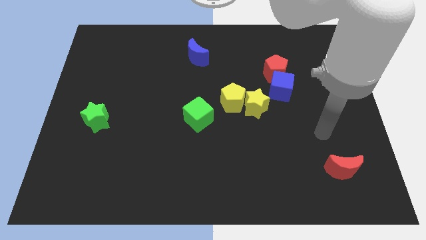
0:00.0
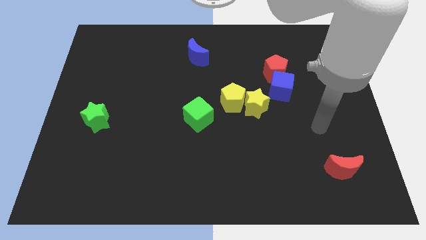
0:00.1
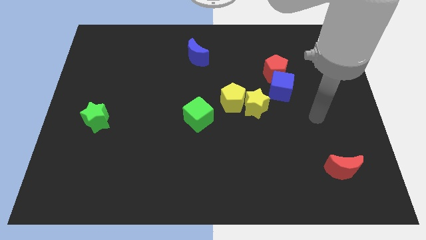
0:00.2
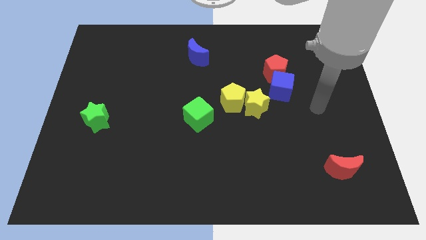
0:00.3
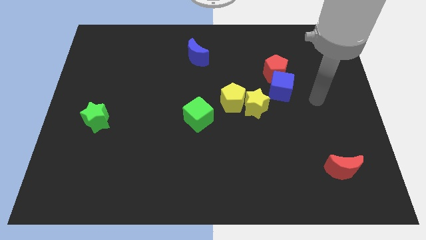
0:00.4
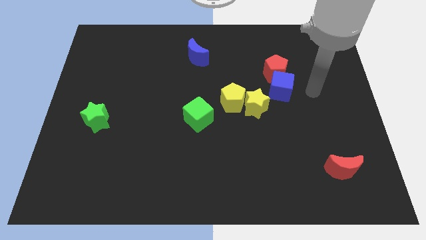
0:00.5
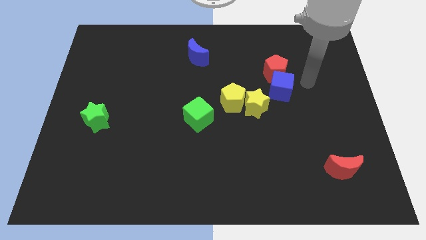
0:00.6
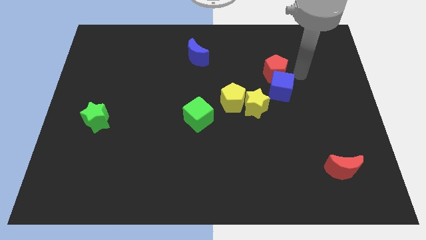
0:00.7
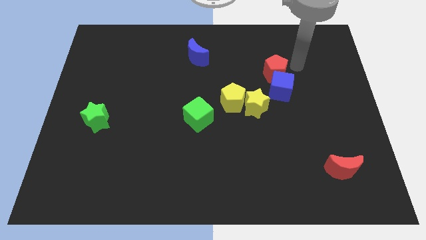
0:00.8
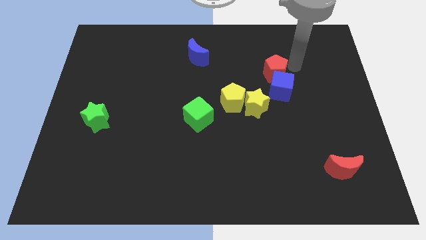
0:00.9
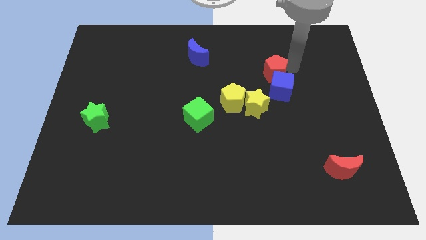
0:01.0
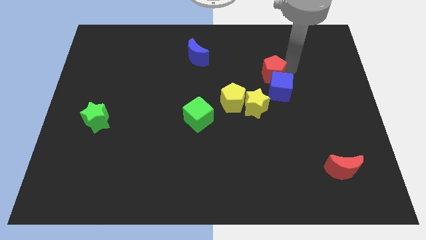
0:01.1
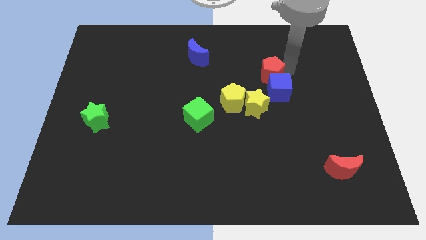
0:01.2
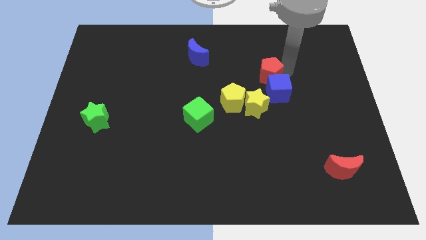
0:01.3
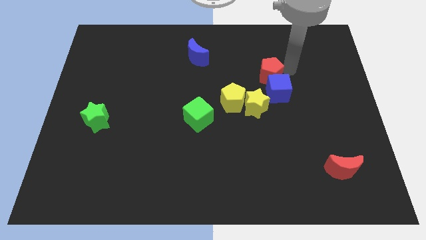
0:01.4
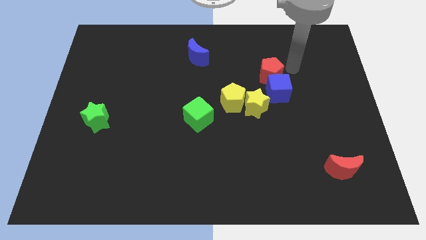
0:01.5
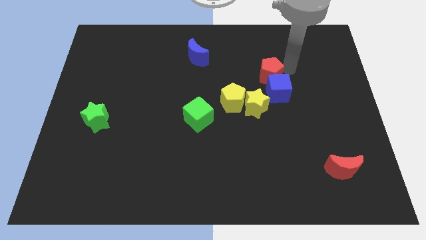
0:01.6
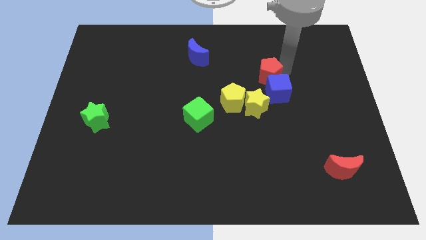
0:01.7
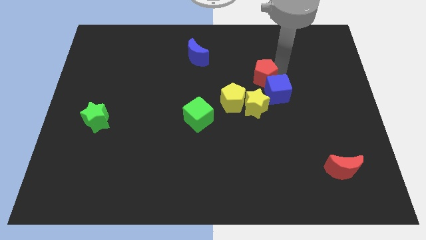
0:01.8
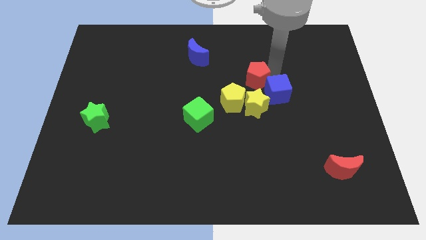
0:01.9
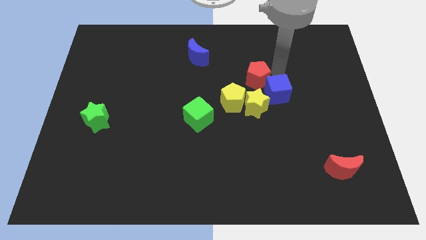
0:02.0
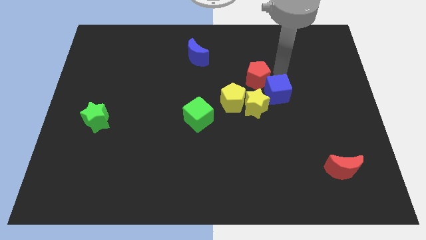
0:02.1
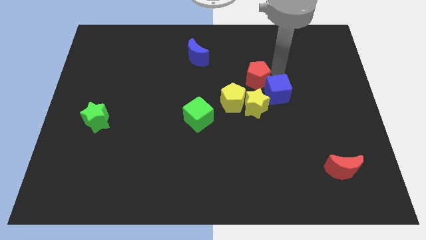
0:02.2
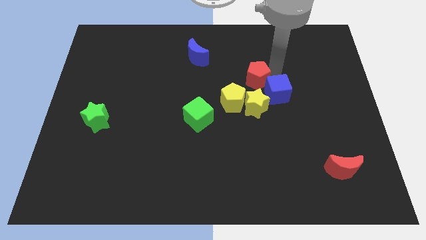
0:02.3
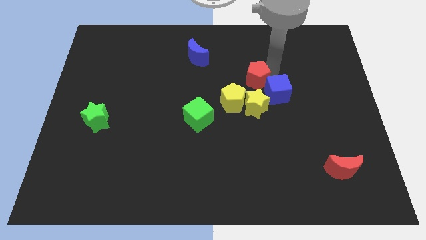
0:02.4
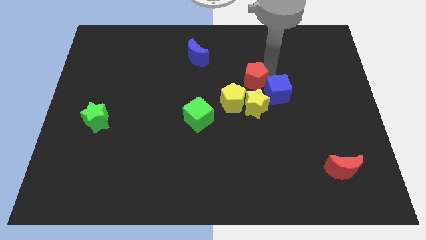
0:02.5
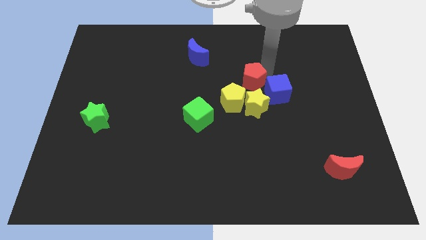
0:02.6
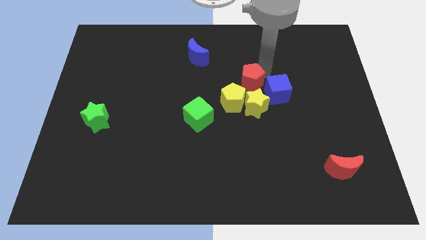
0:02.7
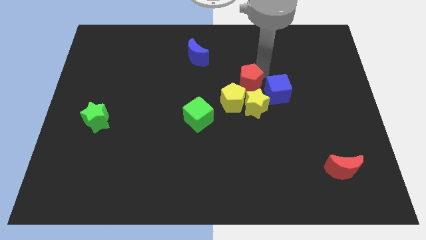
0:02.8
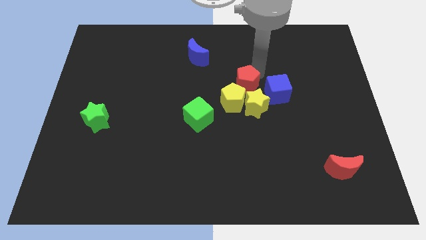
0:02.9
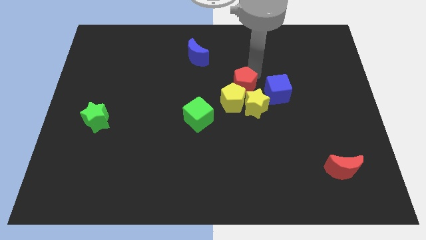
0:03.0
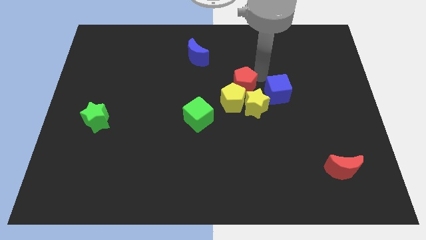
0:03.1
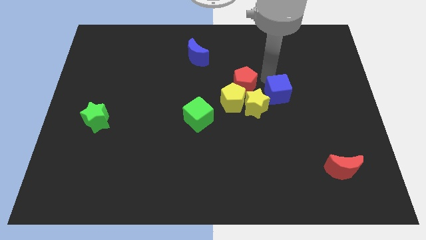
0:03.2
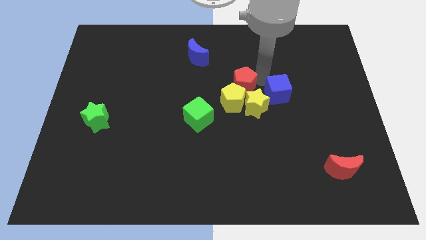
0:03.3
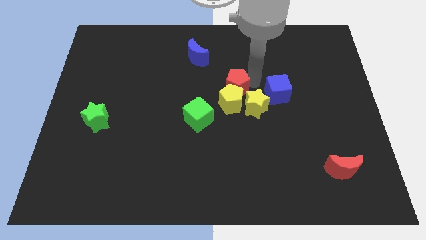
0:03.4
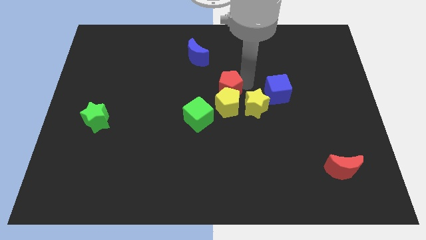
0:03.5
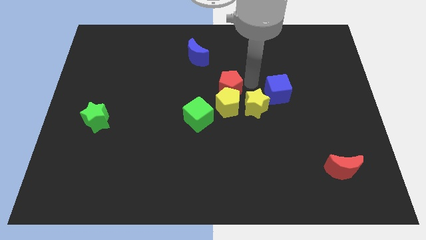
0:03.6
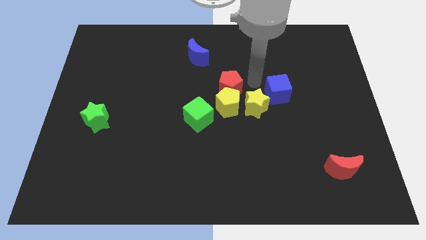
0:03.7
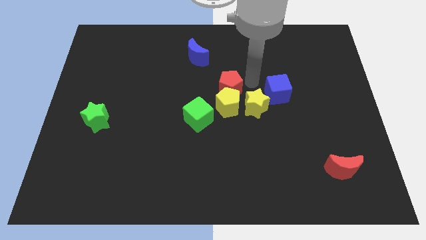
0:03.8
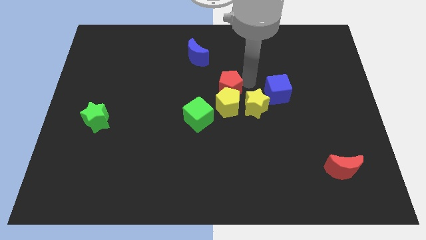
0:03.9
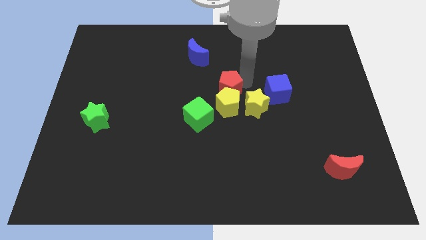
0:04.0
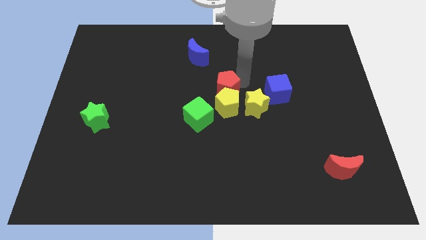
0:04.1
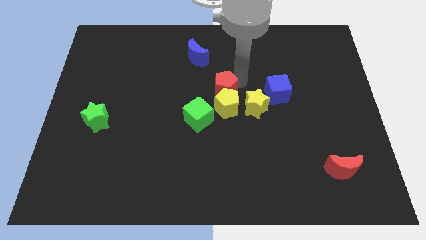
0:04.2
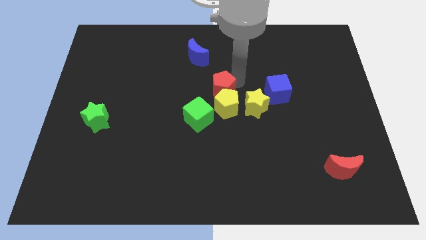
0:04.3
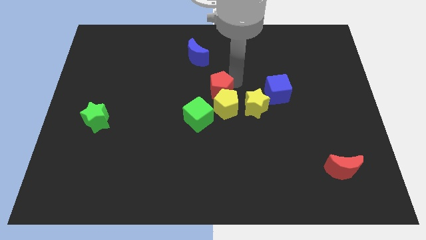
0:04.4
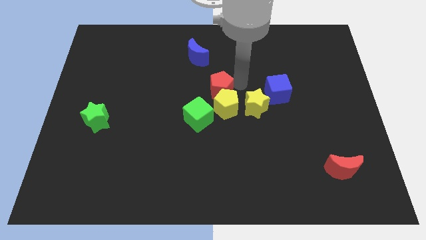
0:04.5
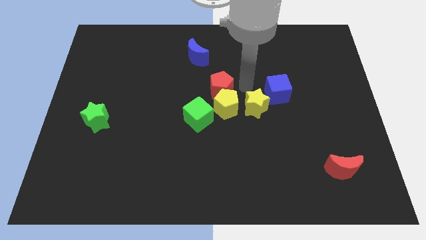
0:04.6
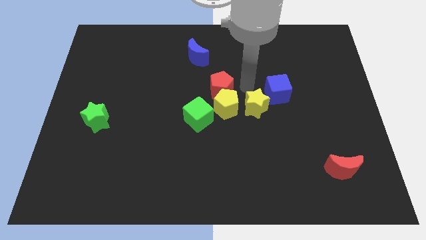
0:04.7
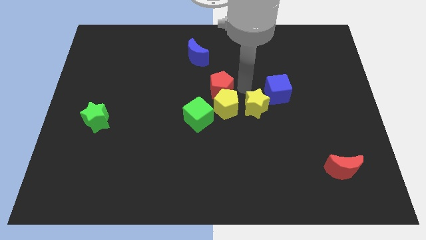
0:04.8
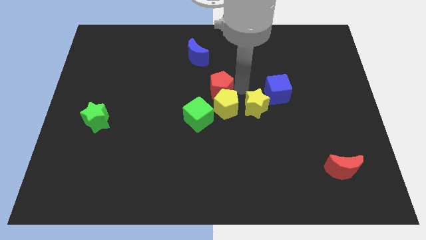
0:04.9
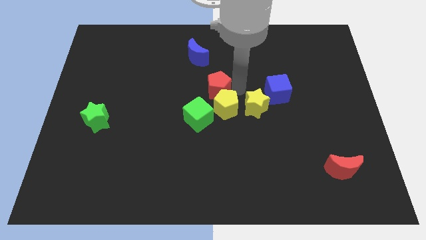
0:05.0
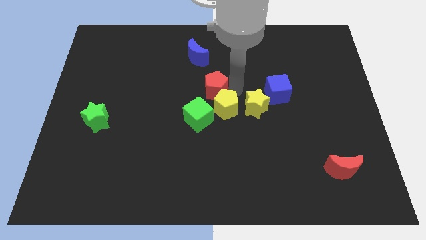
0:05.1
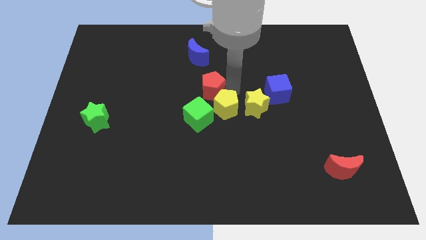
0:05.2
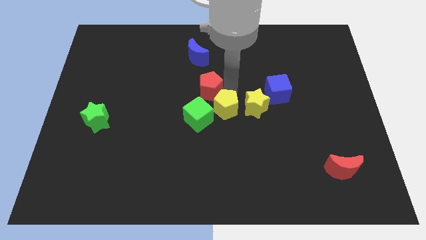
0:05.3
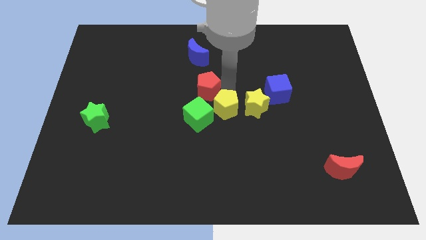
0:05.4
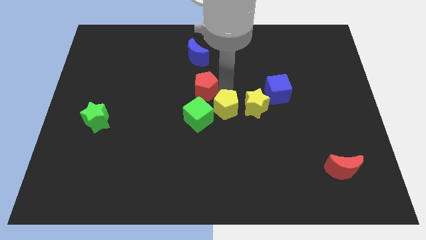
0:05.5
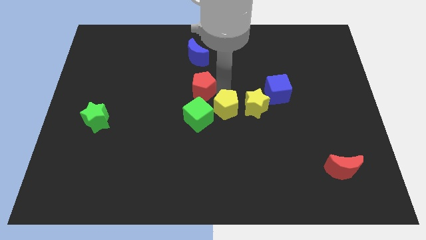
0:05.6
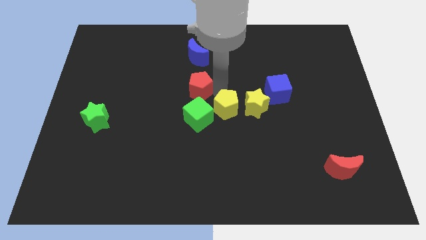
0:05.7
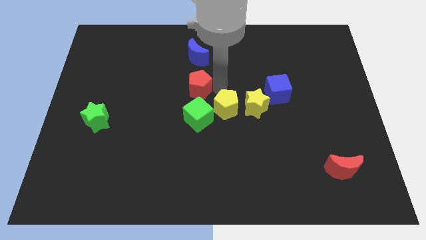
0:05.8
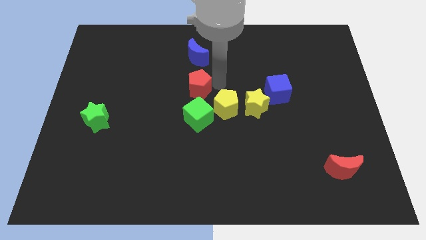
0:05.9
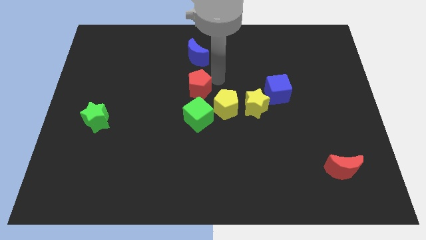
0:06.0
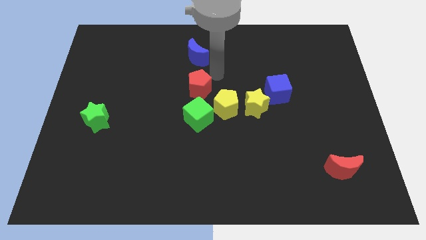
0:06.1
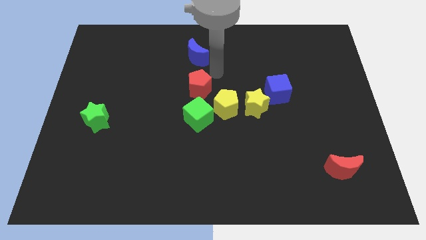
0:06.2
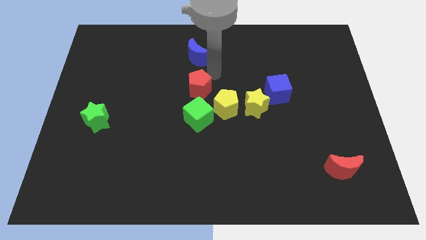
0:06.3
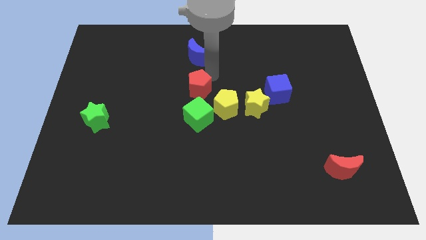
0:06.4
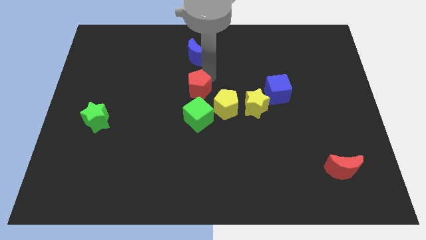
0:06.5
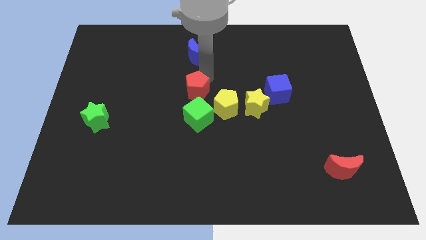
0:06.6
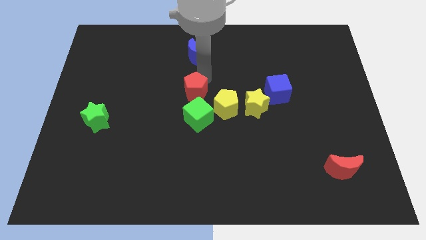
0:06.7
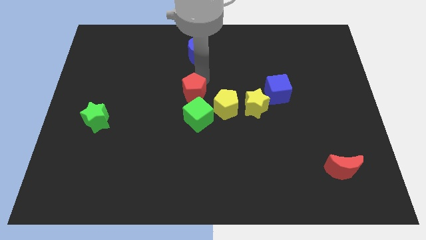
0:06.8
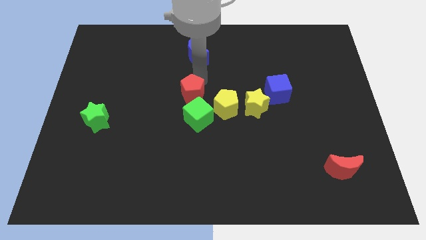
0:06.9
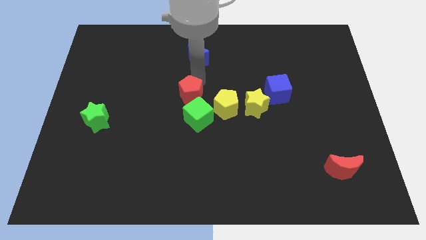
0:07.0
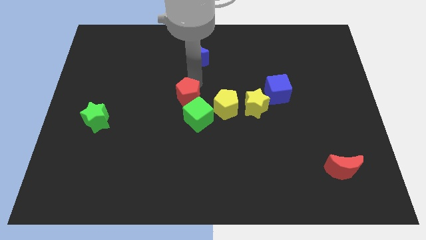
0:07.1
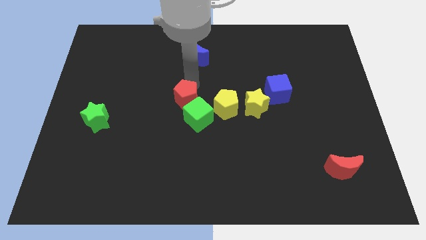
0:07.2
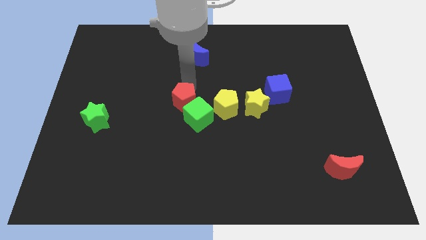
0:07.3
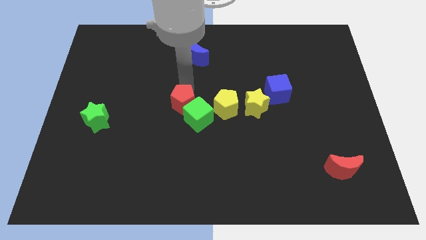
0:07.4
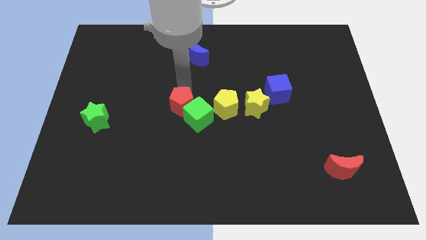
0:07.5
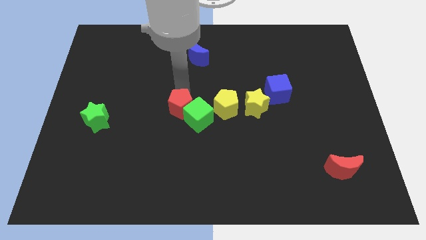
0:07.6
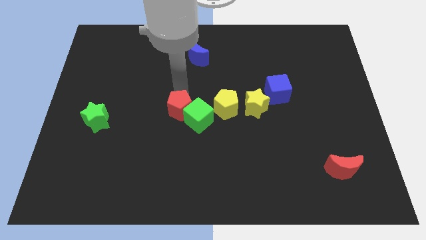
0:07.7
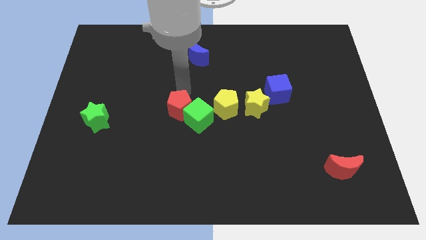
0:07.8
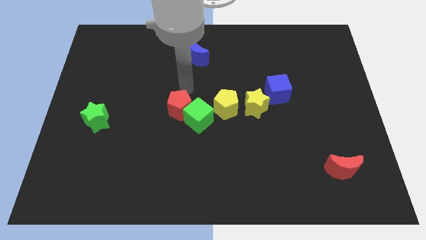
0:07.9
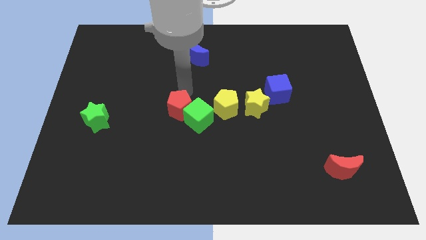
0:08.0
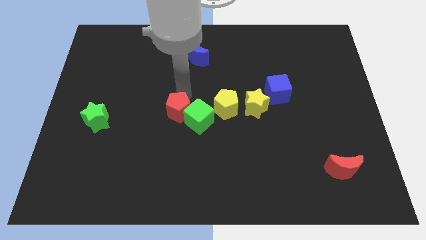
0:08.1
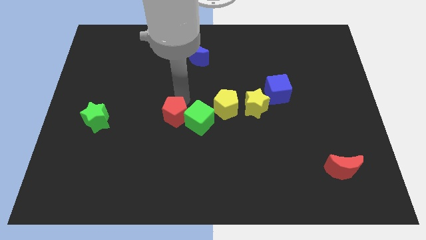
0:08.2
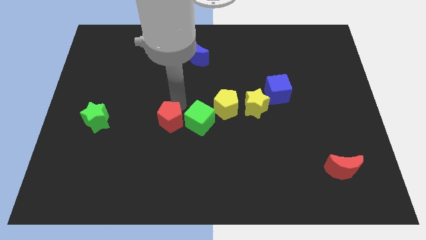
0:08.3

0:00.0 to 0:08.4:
slide the red pentagon to the bottom left of the green cube
